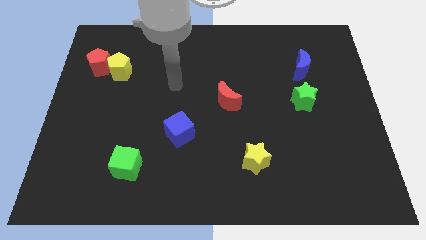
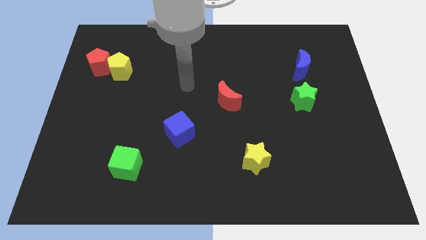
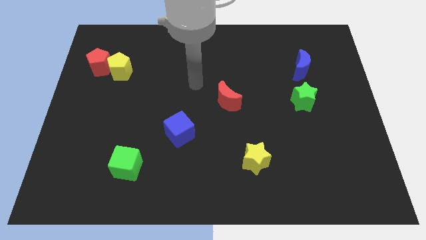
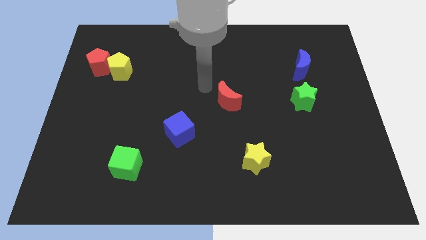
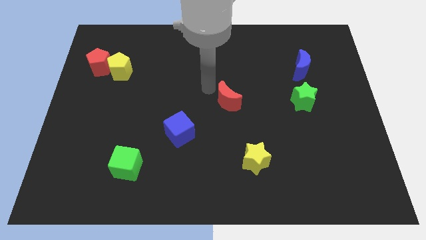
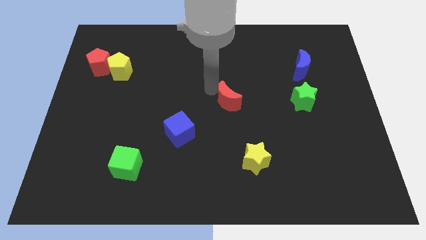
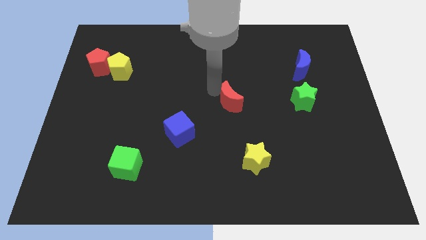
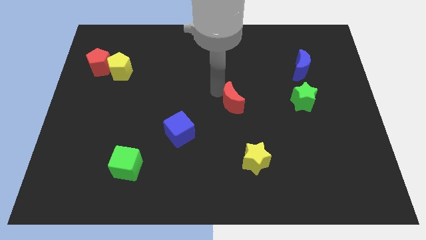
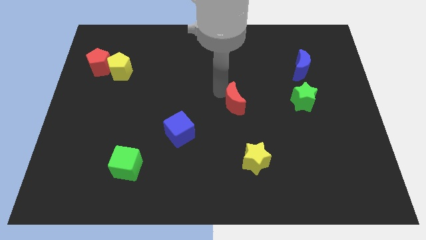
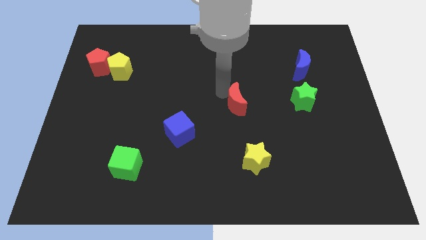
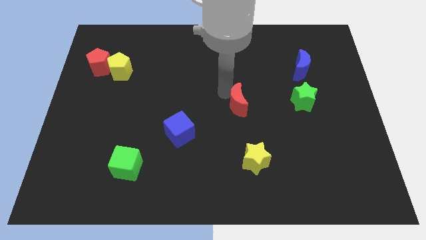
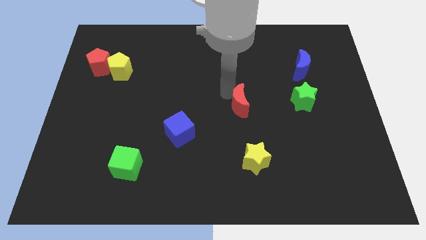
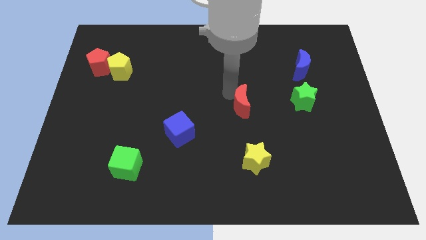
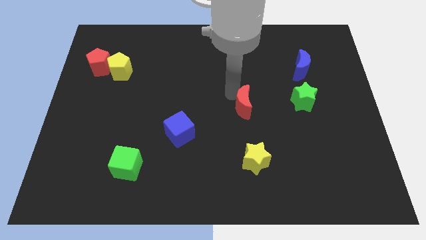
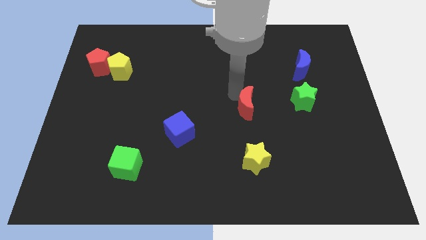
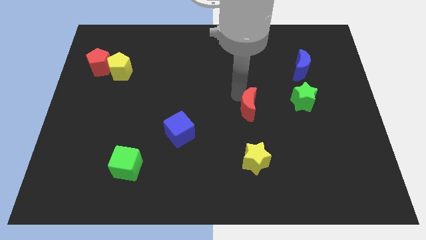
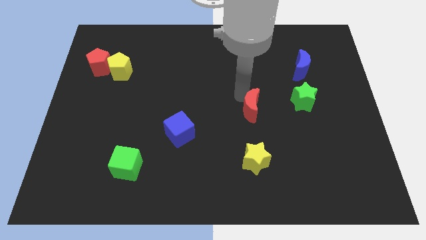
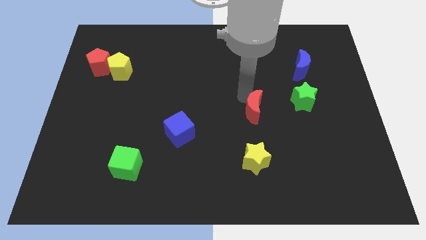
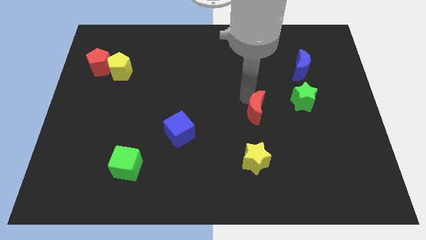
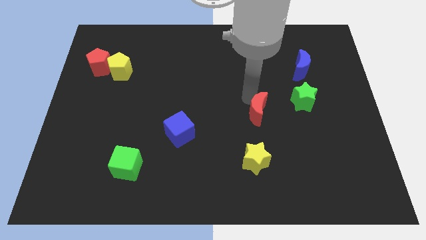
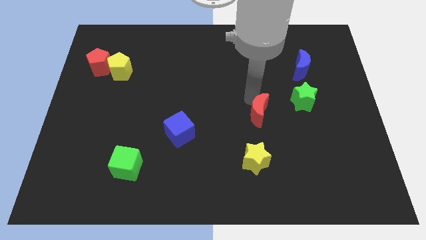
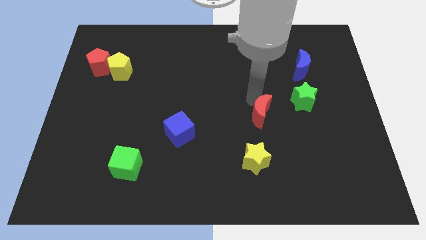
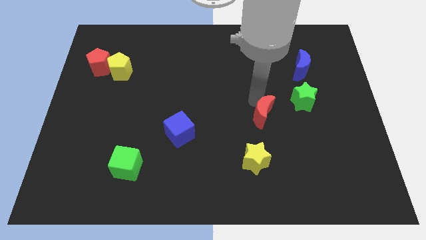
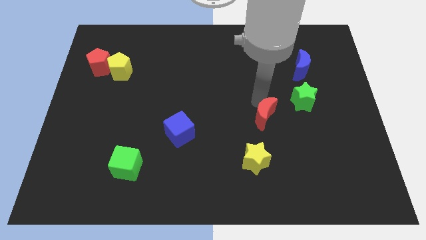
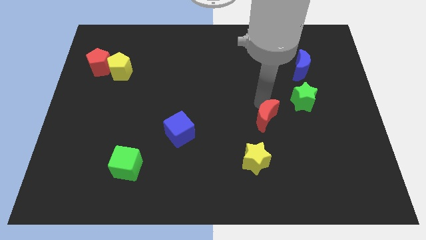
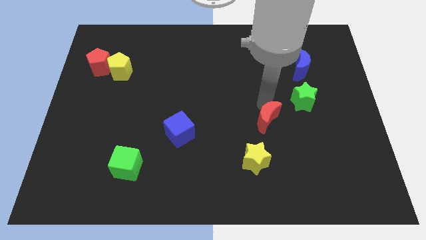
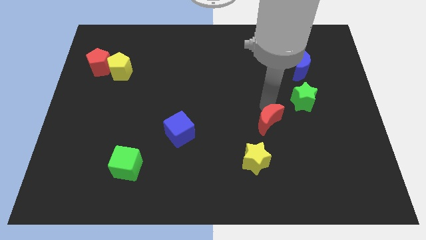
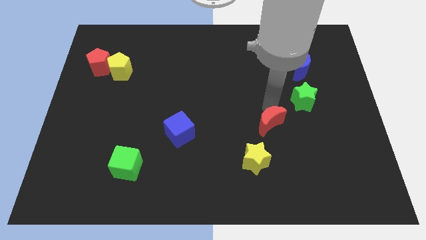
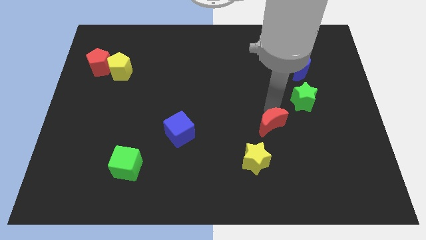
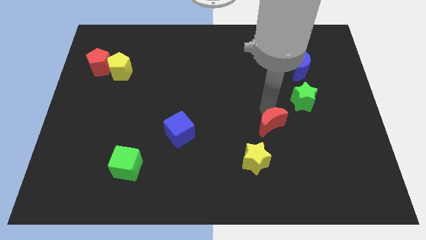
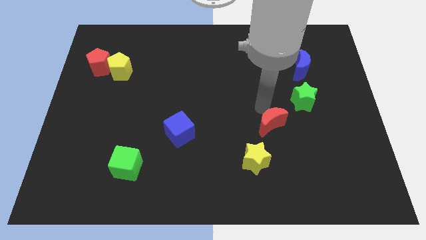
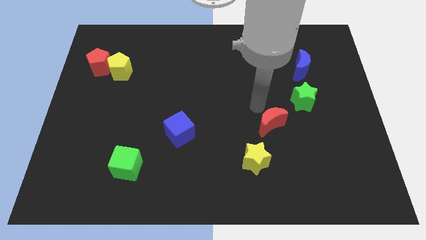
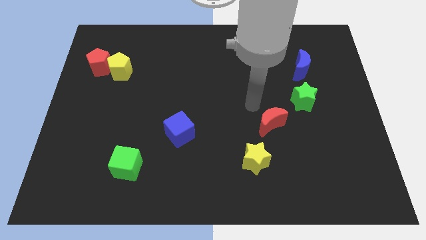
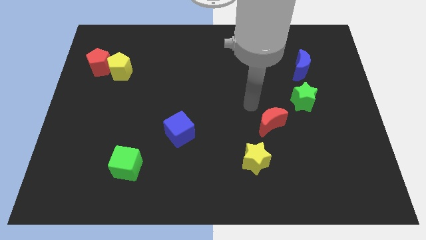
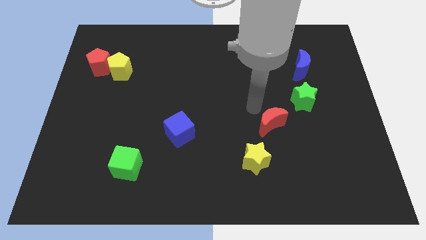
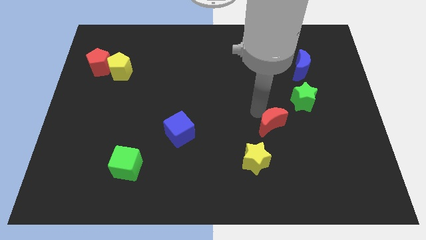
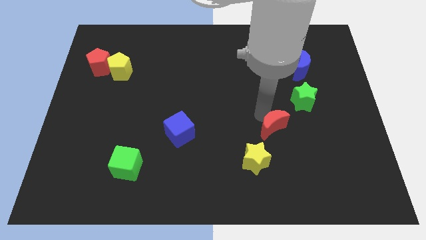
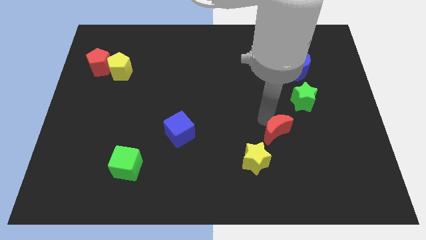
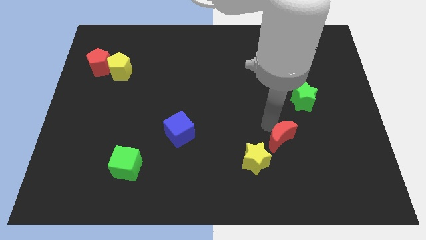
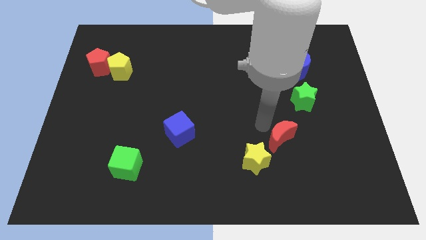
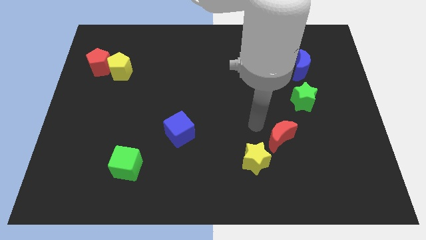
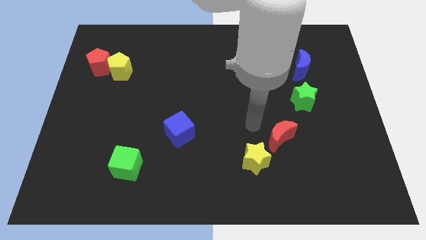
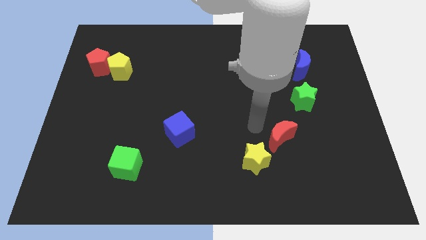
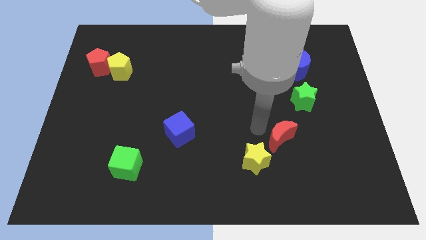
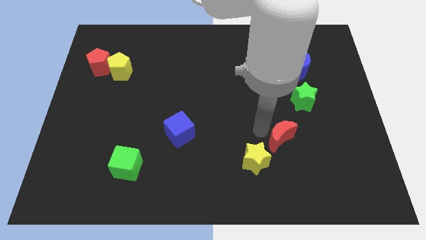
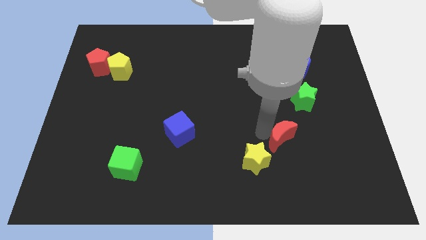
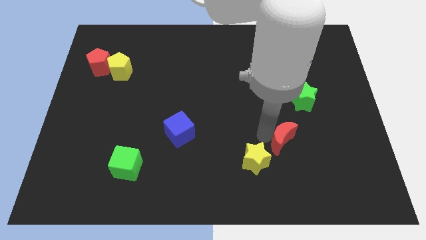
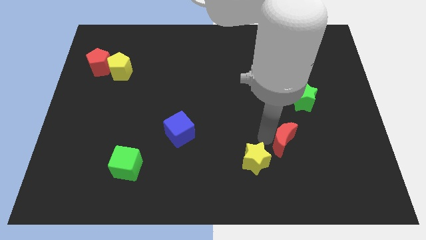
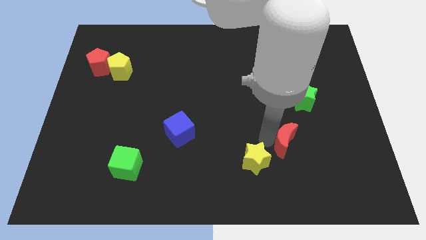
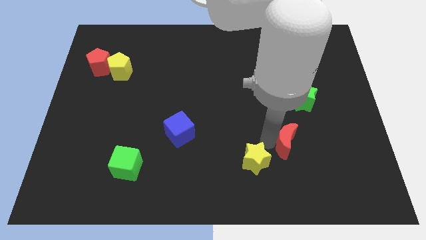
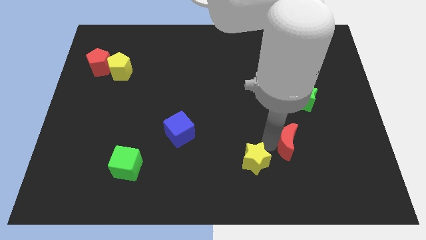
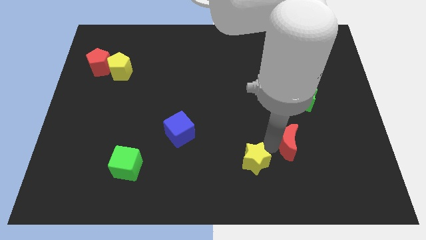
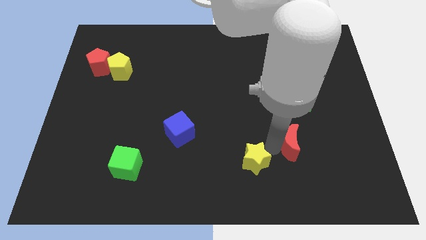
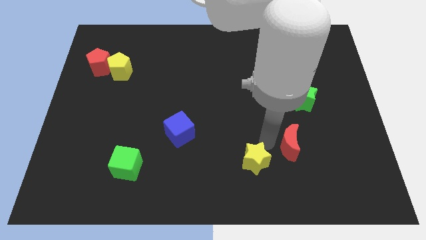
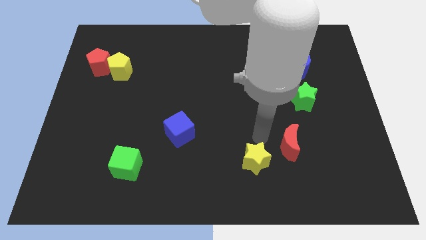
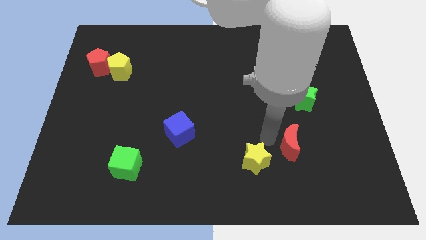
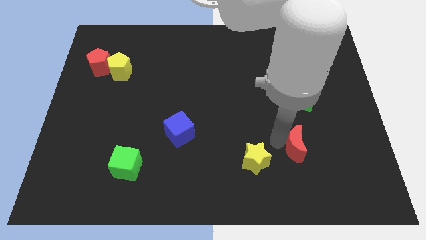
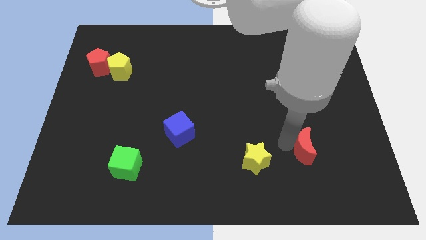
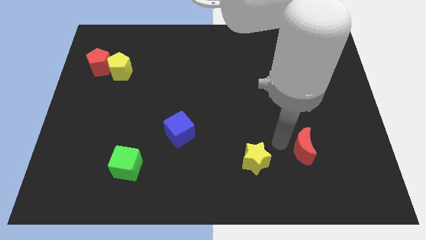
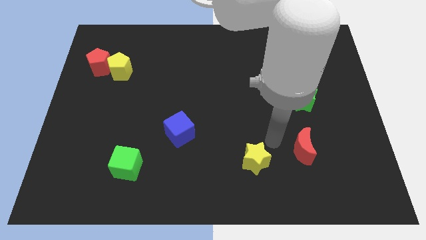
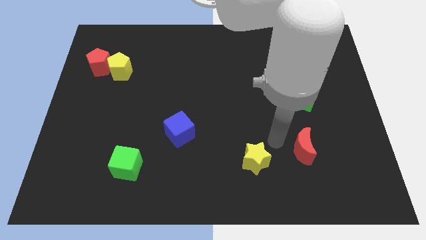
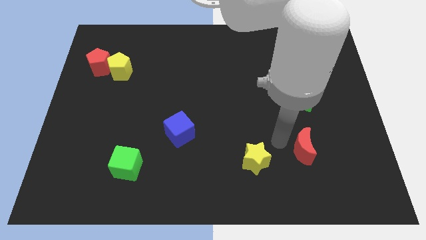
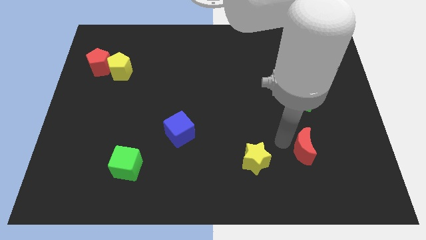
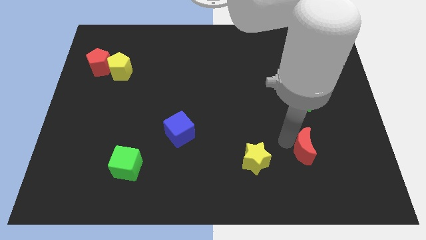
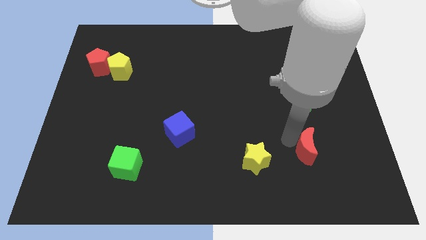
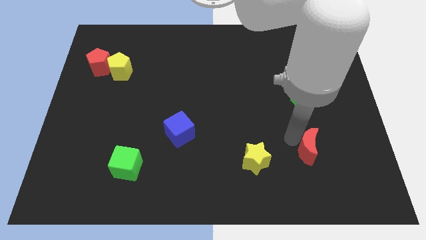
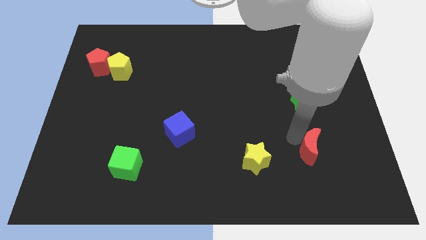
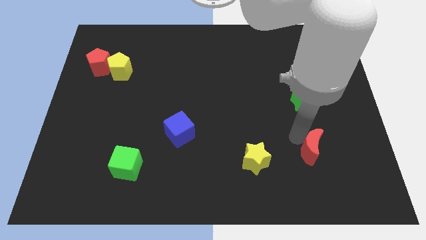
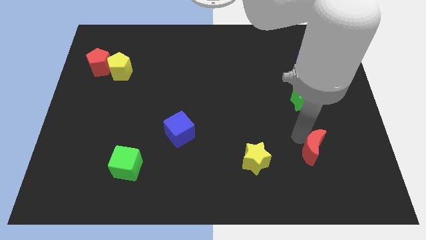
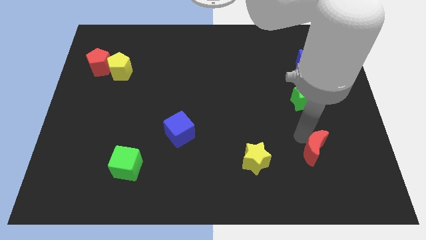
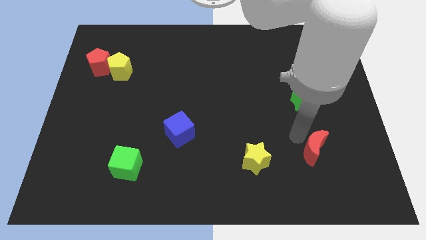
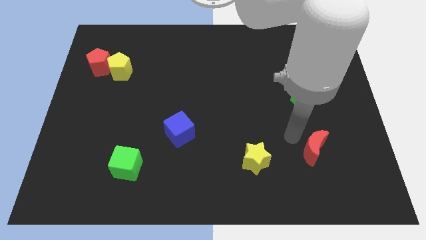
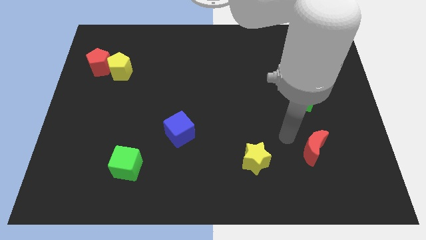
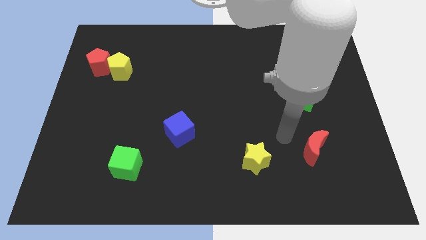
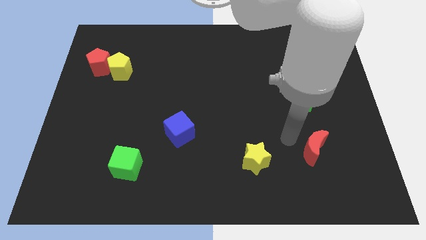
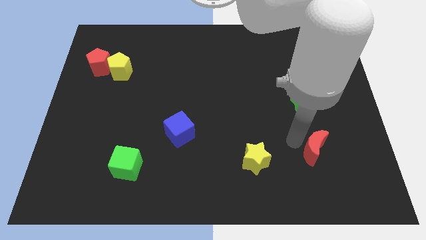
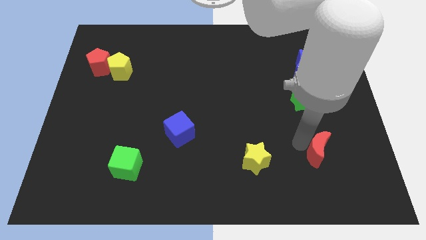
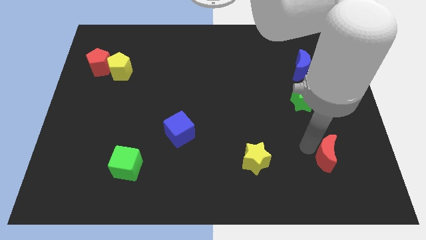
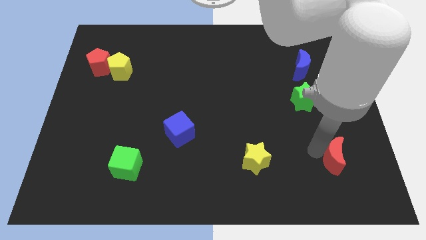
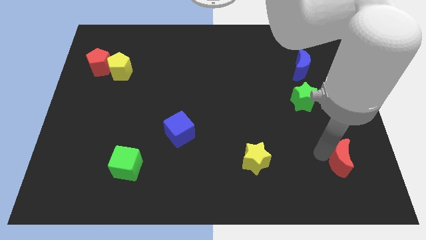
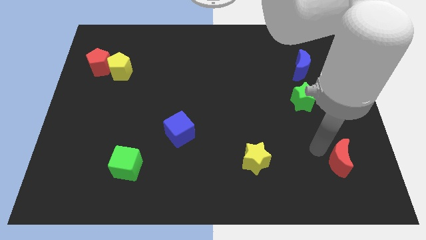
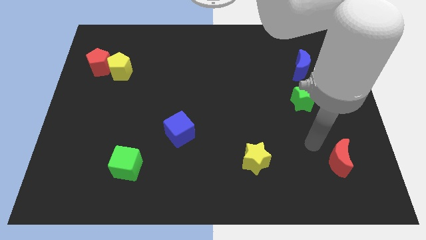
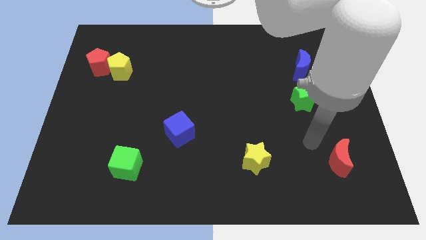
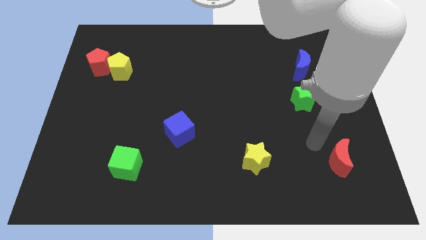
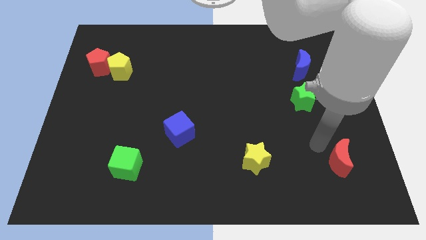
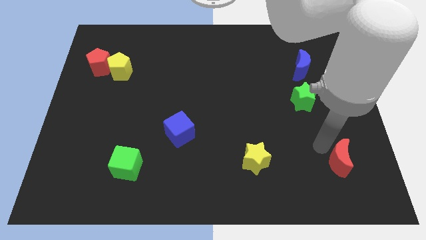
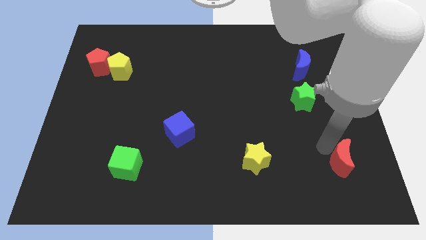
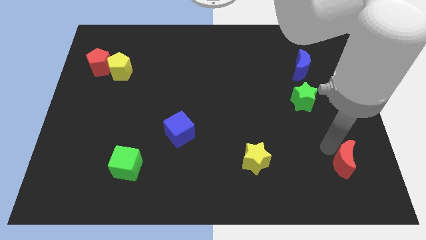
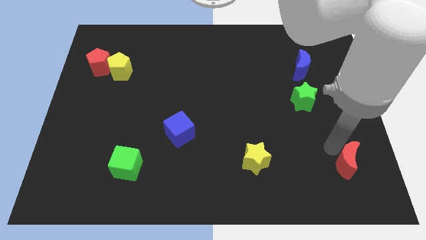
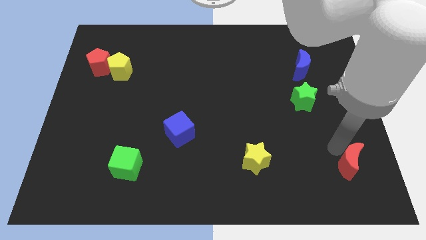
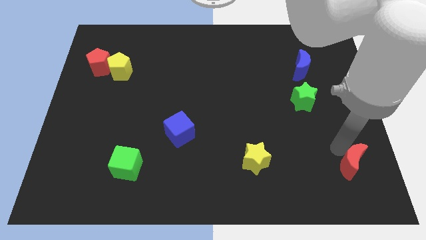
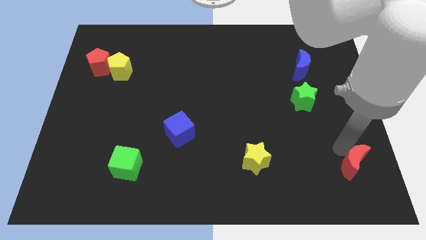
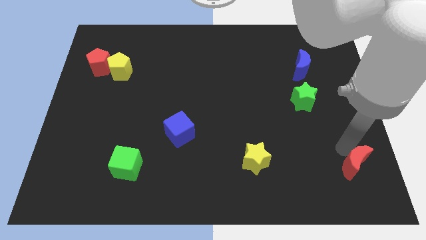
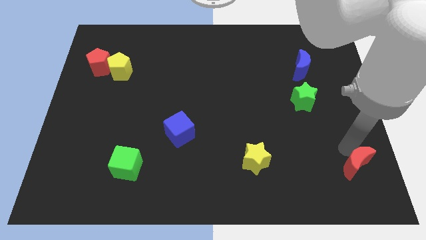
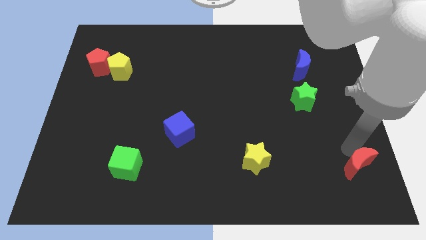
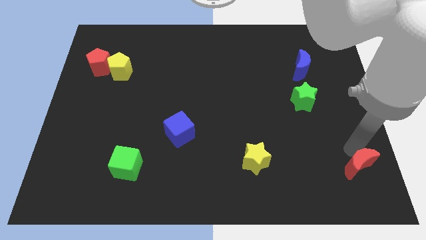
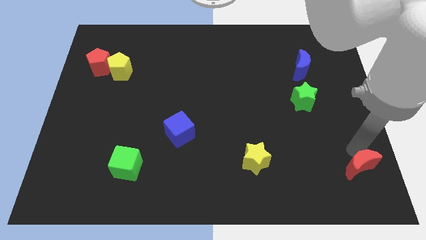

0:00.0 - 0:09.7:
slide the red moon to the bottom right
